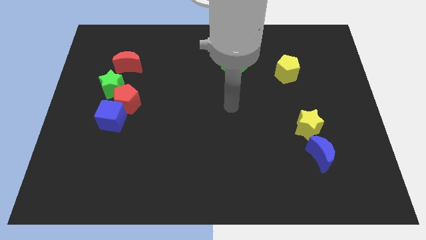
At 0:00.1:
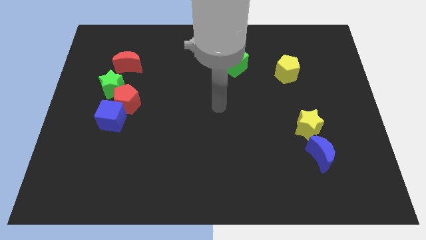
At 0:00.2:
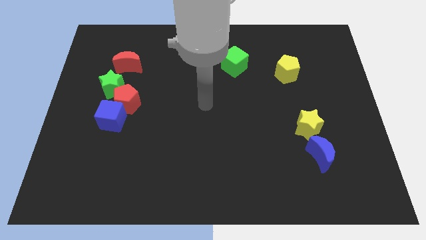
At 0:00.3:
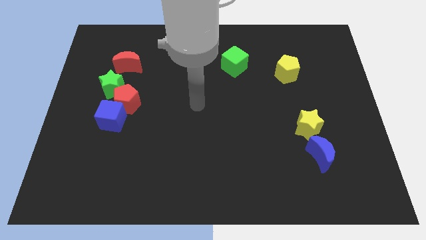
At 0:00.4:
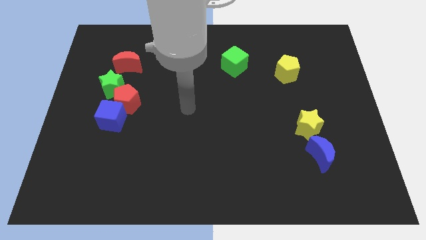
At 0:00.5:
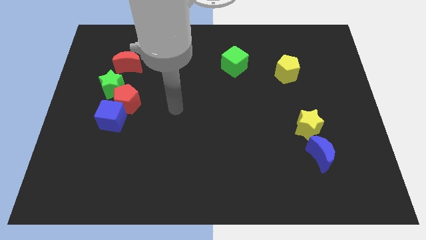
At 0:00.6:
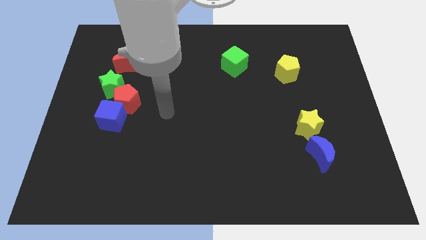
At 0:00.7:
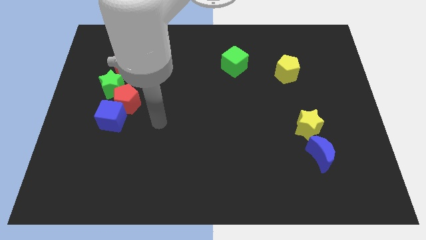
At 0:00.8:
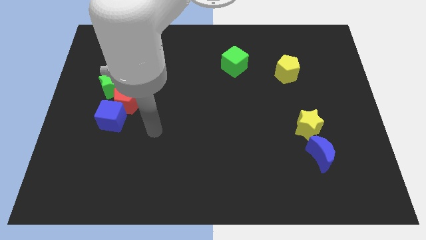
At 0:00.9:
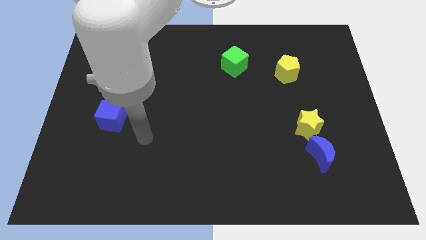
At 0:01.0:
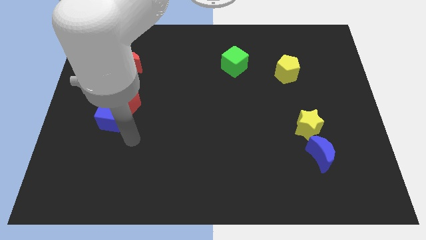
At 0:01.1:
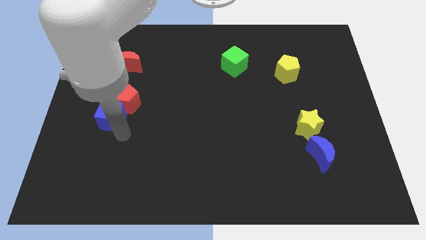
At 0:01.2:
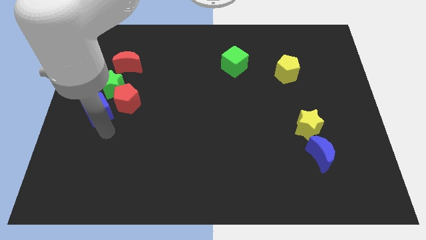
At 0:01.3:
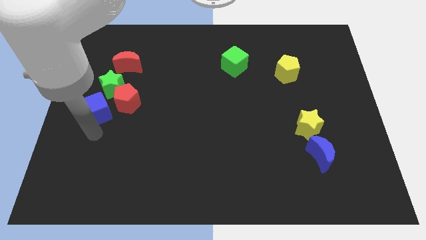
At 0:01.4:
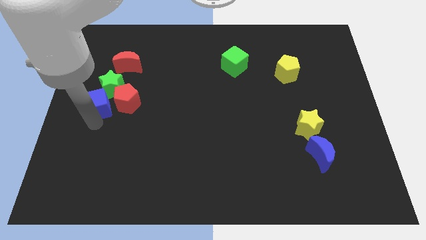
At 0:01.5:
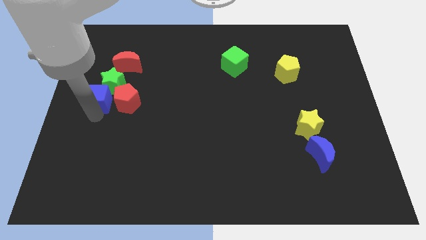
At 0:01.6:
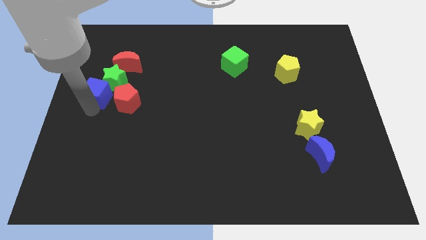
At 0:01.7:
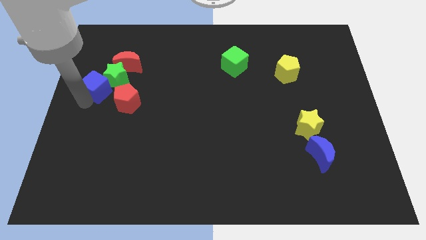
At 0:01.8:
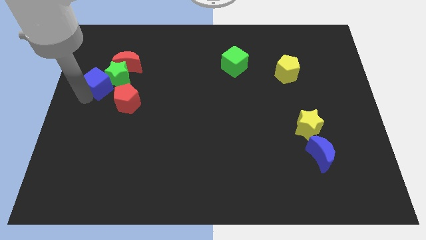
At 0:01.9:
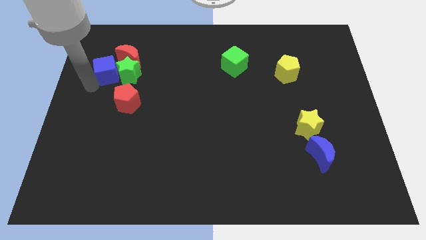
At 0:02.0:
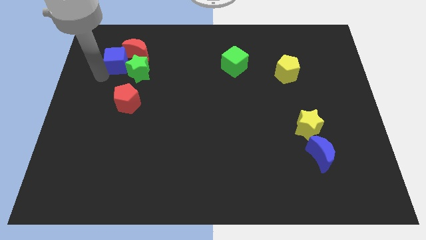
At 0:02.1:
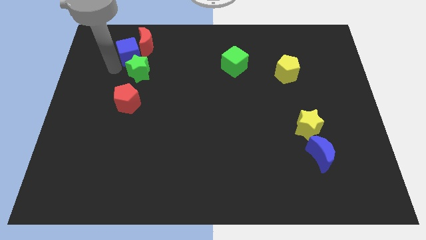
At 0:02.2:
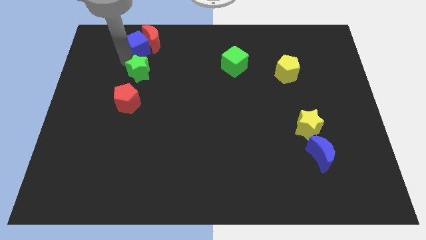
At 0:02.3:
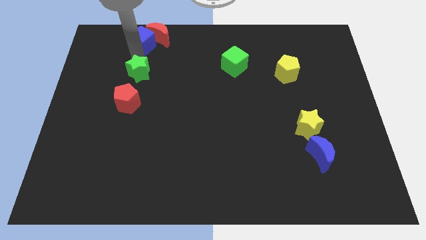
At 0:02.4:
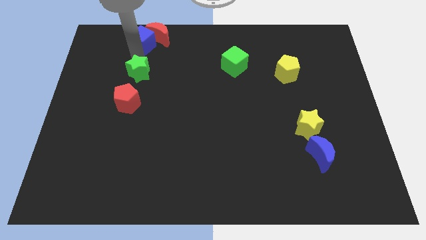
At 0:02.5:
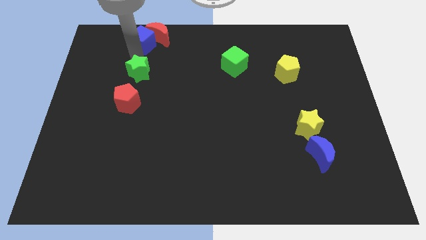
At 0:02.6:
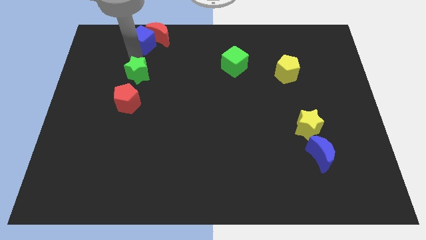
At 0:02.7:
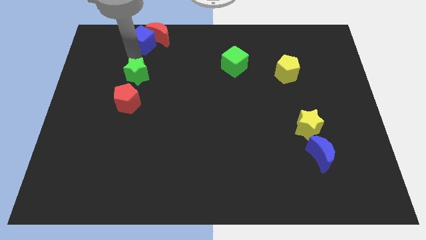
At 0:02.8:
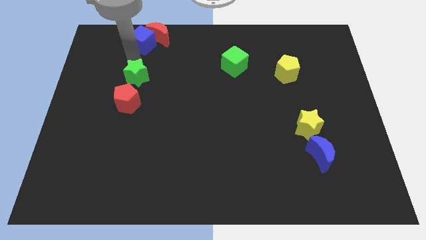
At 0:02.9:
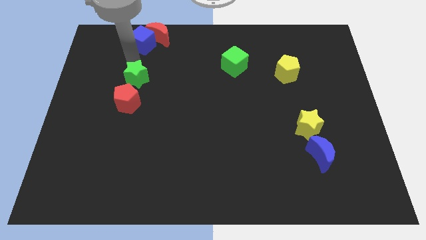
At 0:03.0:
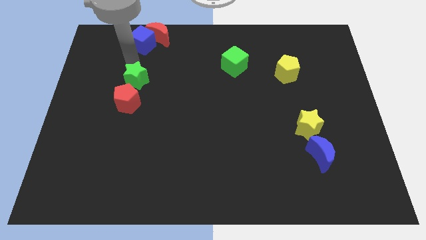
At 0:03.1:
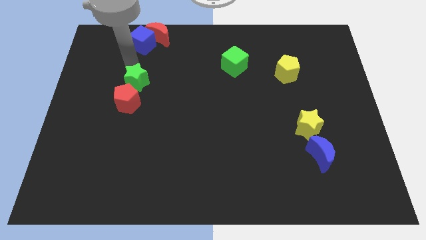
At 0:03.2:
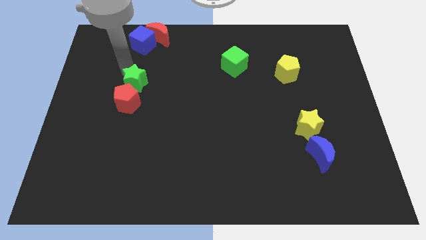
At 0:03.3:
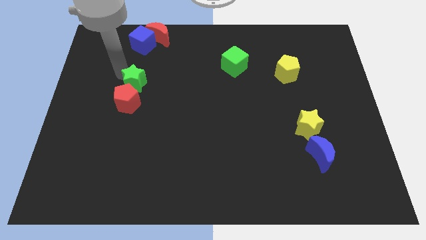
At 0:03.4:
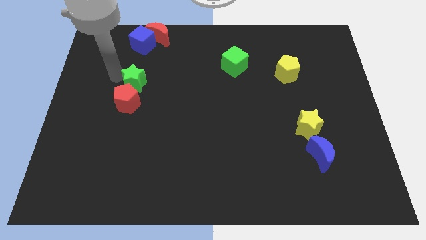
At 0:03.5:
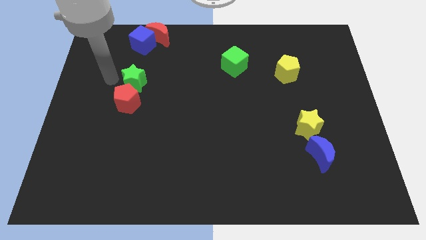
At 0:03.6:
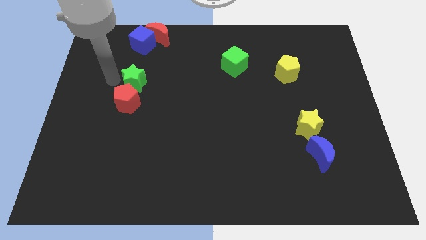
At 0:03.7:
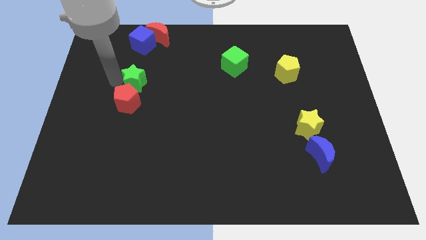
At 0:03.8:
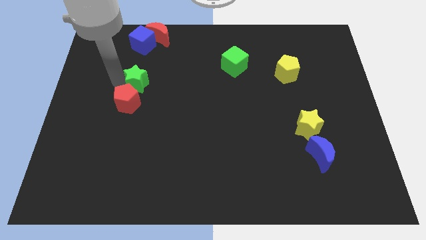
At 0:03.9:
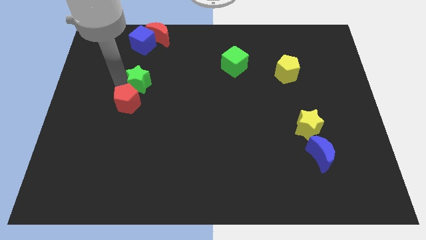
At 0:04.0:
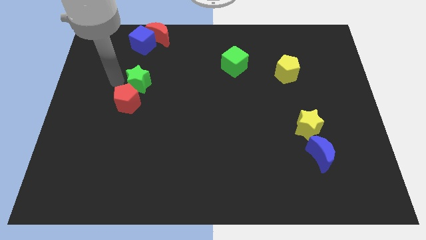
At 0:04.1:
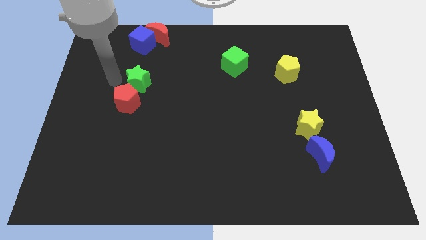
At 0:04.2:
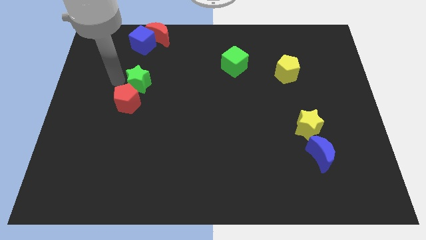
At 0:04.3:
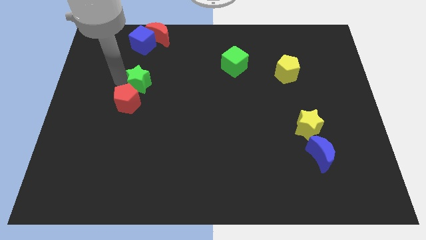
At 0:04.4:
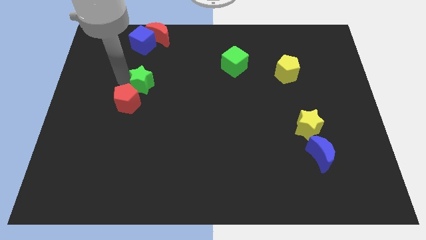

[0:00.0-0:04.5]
slightly slide the green star to the right

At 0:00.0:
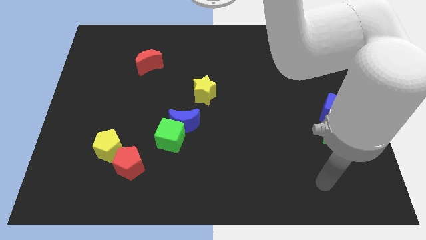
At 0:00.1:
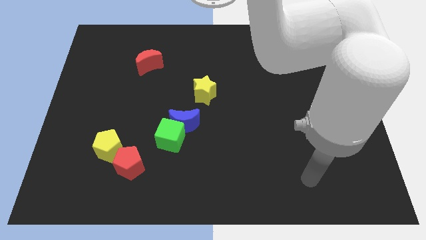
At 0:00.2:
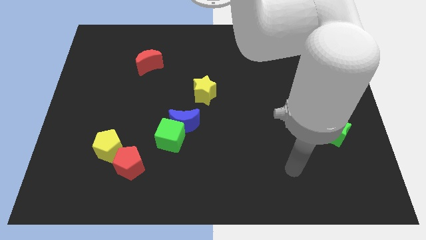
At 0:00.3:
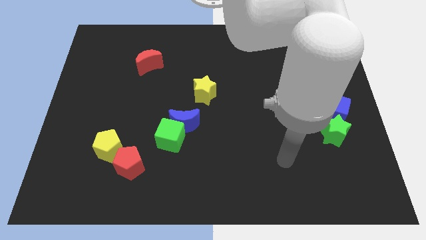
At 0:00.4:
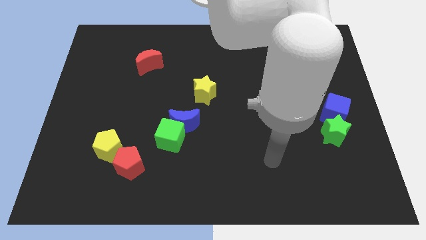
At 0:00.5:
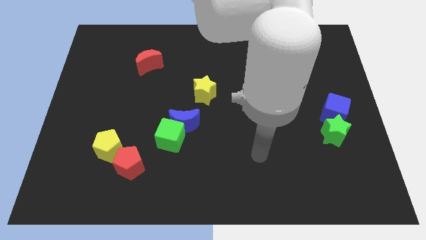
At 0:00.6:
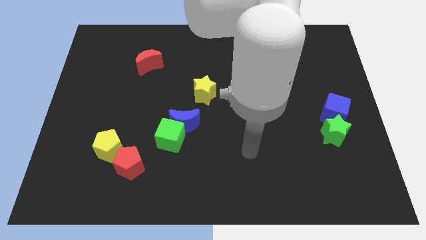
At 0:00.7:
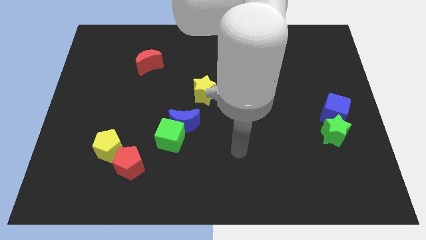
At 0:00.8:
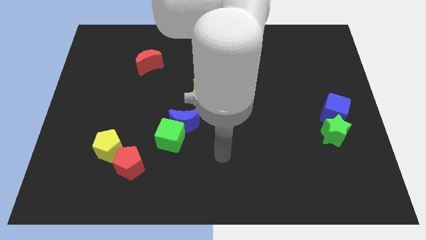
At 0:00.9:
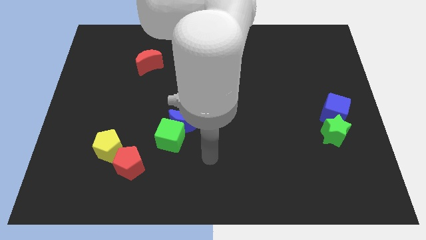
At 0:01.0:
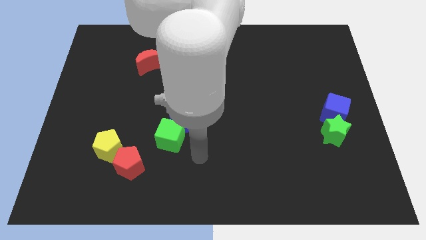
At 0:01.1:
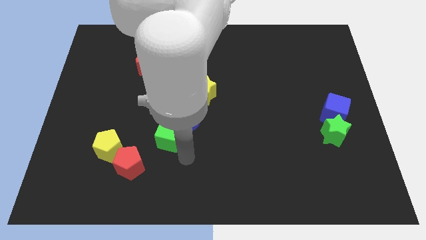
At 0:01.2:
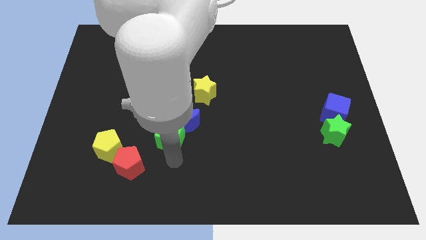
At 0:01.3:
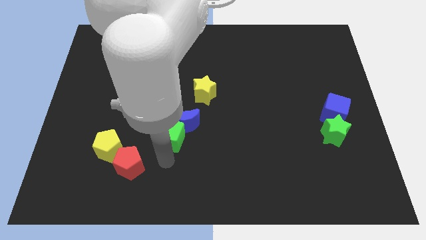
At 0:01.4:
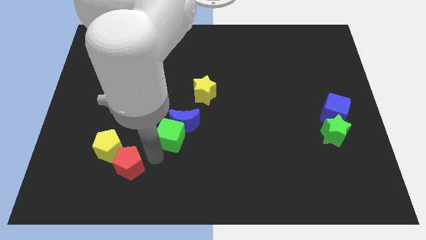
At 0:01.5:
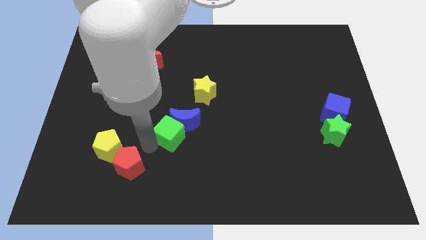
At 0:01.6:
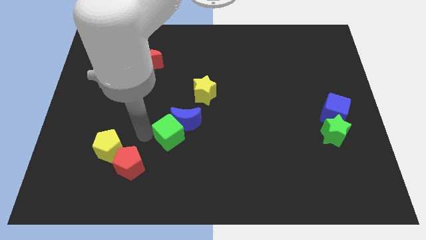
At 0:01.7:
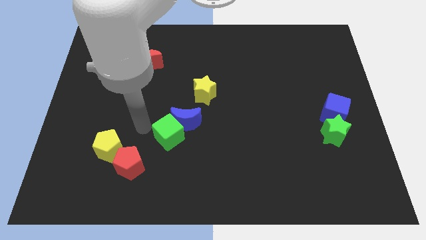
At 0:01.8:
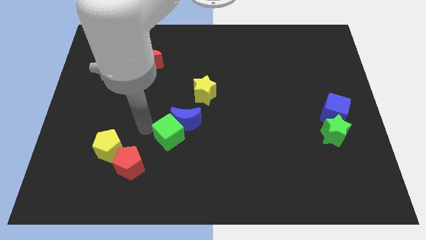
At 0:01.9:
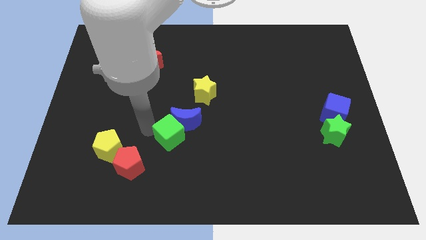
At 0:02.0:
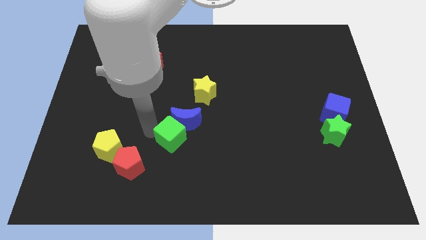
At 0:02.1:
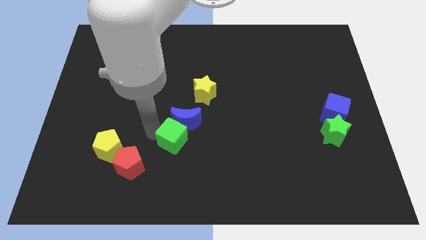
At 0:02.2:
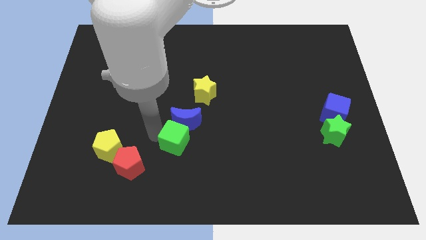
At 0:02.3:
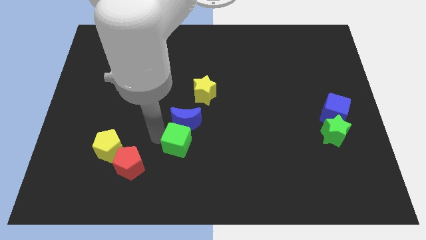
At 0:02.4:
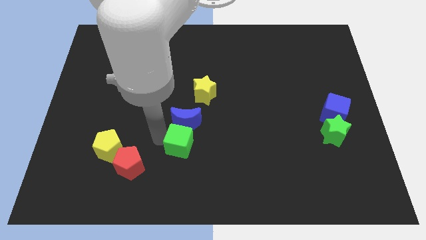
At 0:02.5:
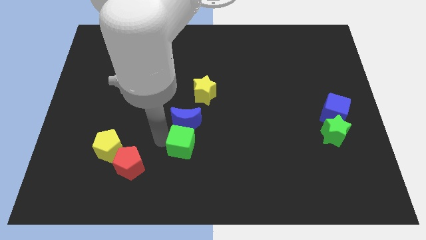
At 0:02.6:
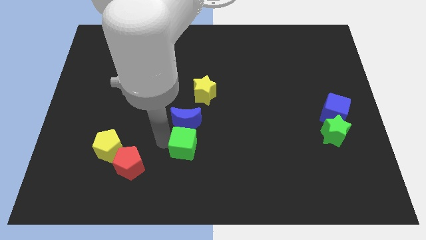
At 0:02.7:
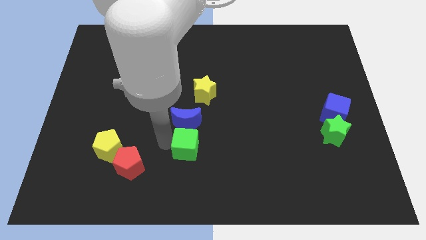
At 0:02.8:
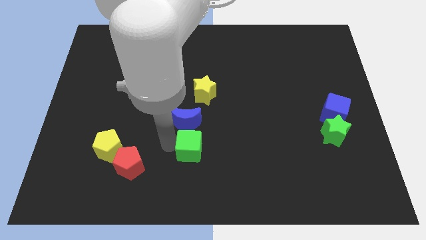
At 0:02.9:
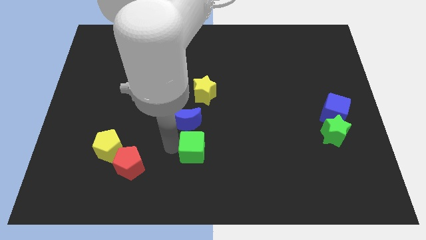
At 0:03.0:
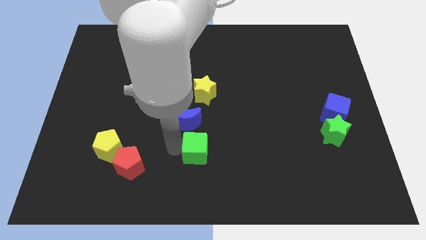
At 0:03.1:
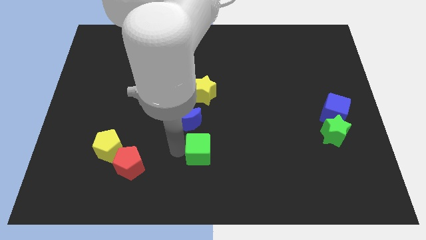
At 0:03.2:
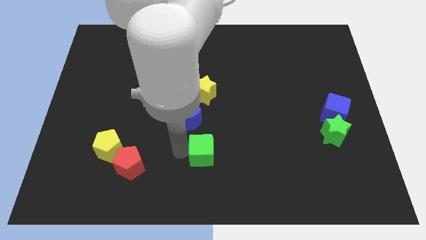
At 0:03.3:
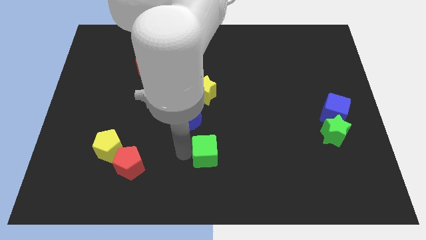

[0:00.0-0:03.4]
slide the green cube right slightly

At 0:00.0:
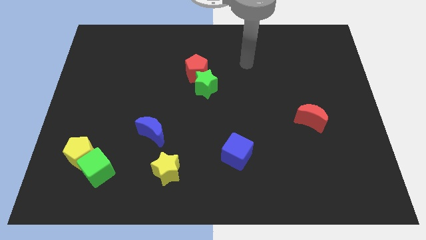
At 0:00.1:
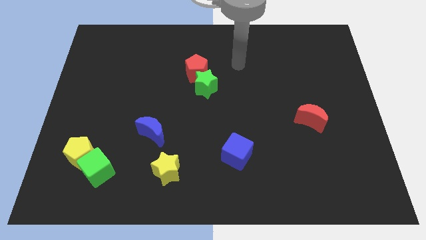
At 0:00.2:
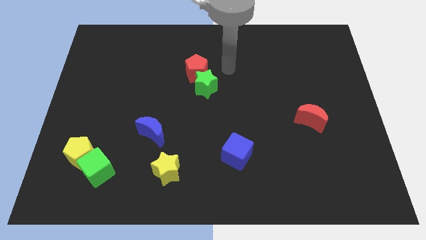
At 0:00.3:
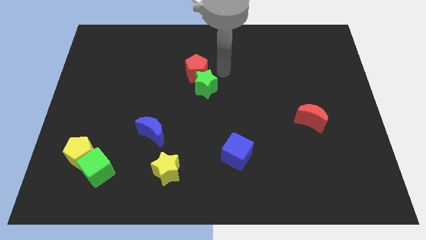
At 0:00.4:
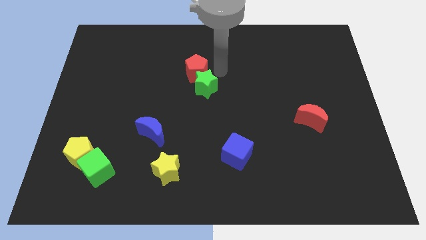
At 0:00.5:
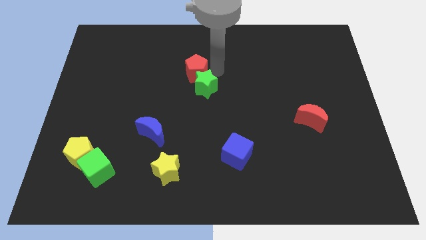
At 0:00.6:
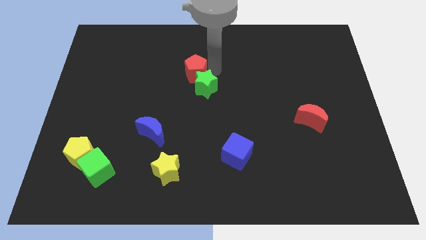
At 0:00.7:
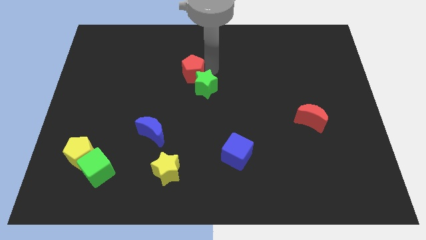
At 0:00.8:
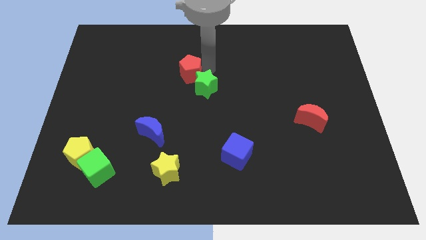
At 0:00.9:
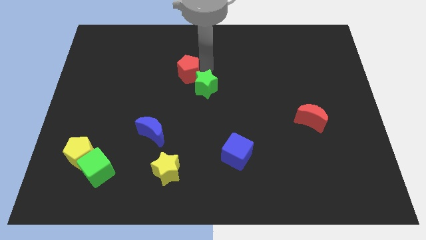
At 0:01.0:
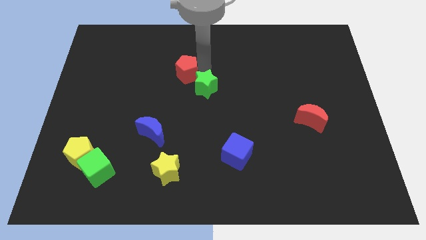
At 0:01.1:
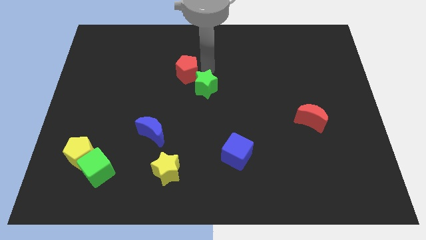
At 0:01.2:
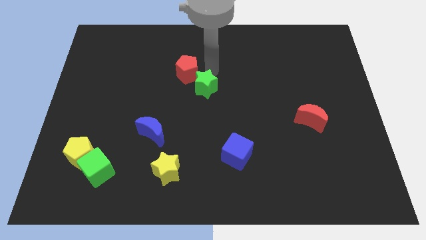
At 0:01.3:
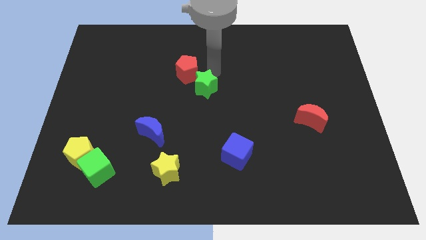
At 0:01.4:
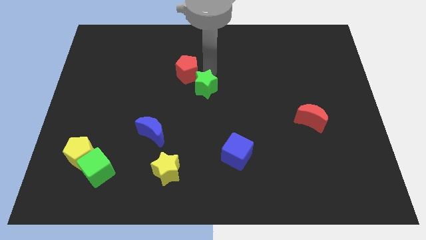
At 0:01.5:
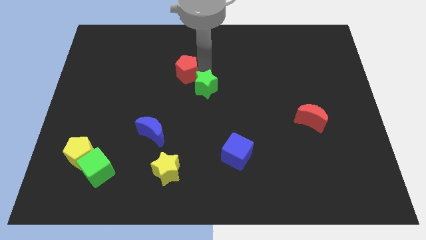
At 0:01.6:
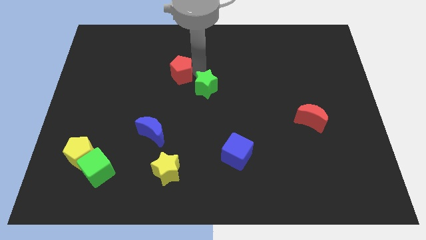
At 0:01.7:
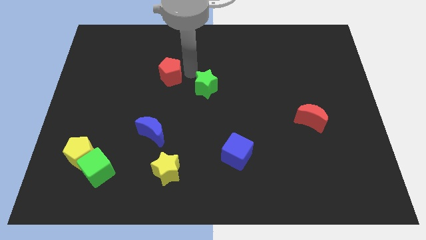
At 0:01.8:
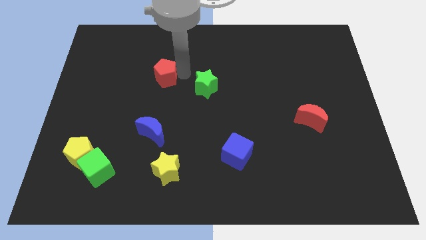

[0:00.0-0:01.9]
slightly slide the red pentagon left
